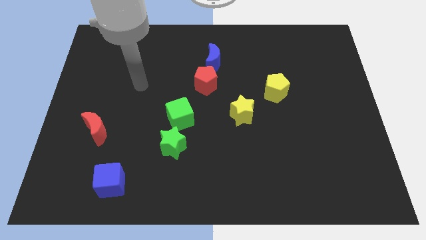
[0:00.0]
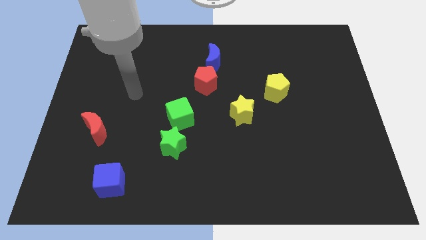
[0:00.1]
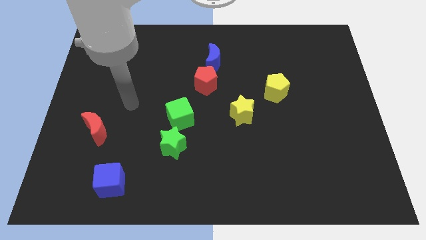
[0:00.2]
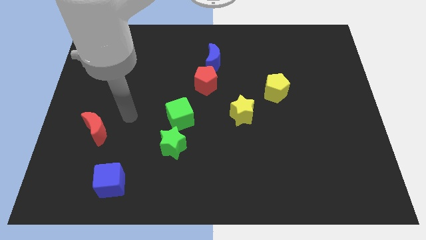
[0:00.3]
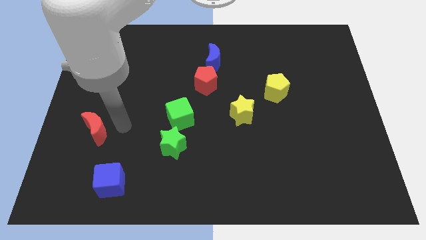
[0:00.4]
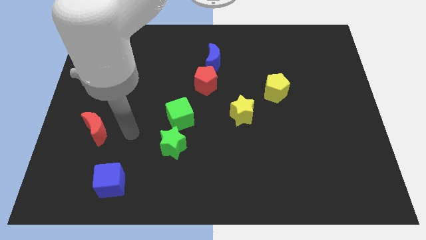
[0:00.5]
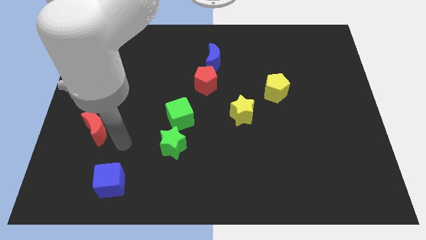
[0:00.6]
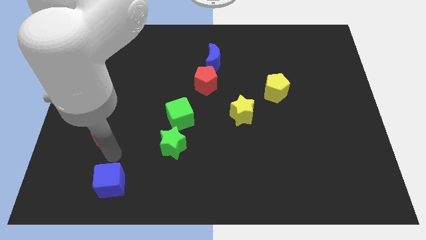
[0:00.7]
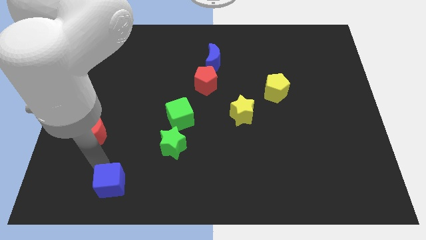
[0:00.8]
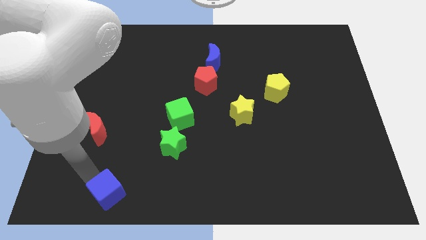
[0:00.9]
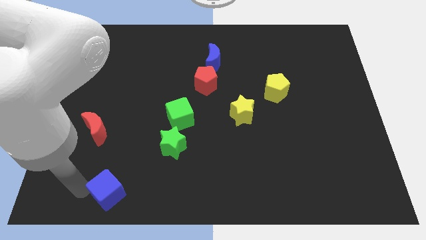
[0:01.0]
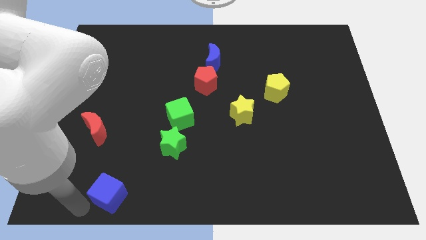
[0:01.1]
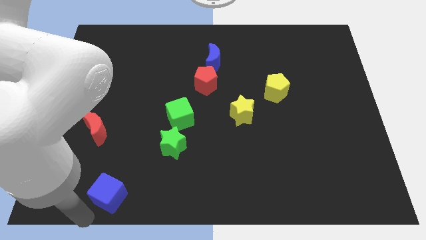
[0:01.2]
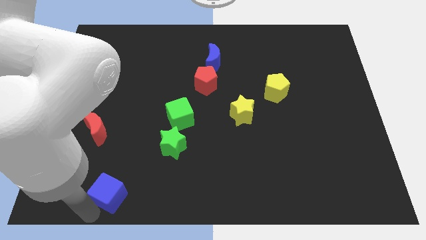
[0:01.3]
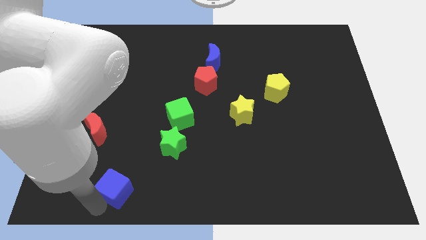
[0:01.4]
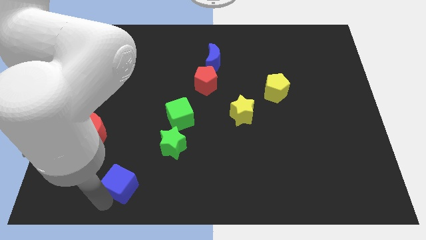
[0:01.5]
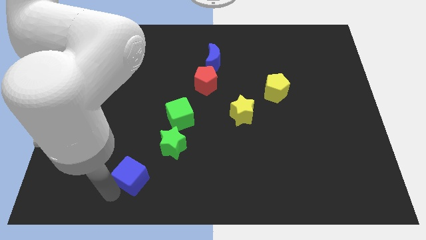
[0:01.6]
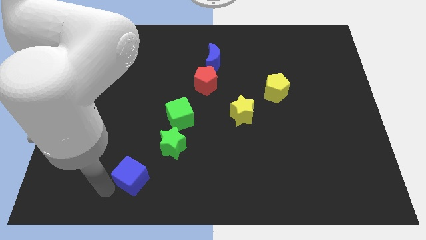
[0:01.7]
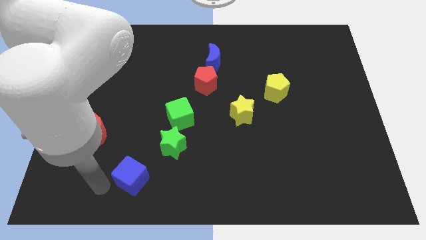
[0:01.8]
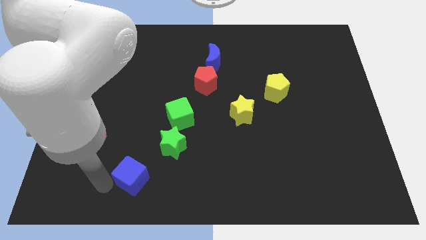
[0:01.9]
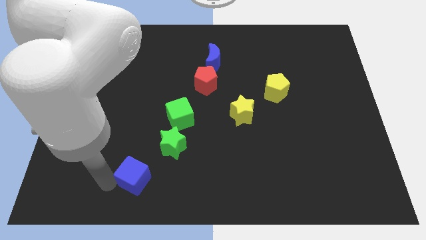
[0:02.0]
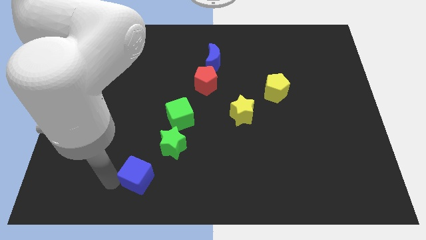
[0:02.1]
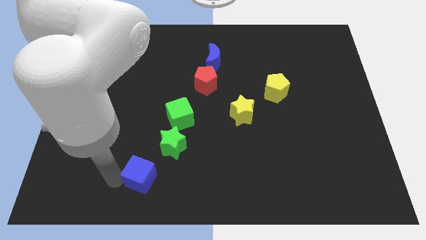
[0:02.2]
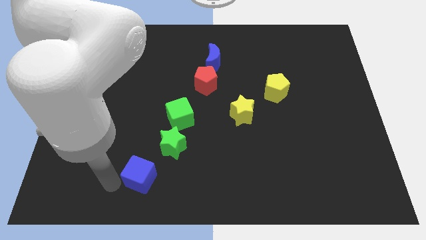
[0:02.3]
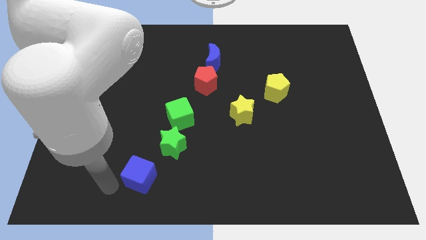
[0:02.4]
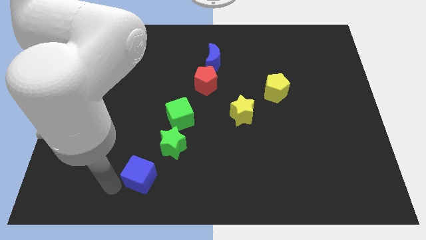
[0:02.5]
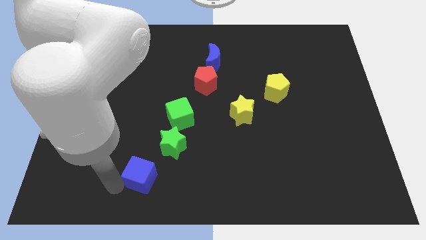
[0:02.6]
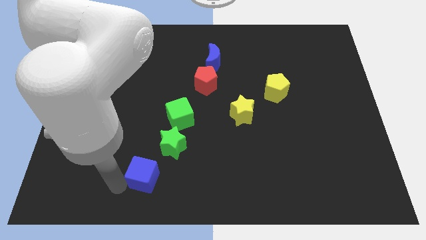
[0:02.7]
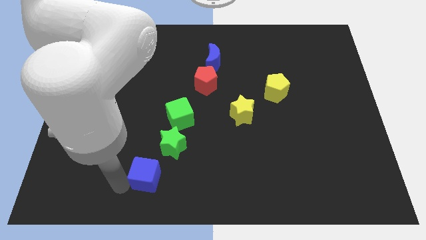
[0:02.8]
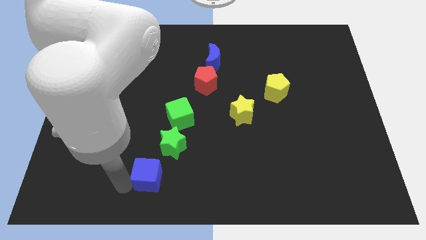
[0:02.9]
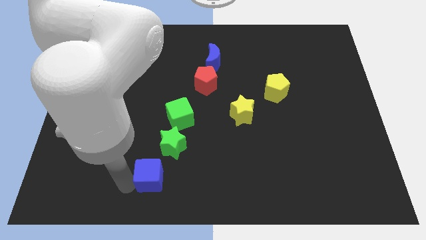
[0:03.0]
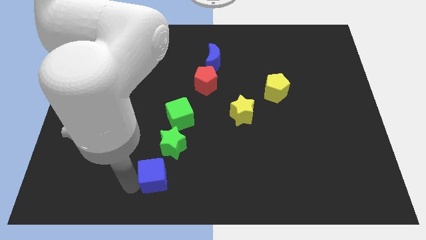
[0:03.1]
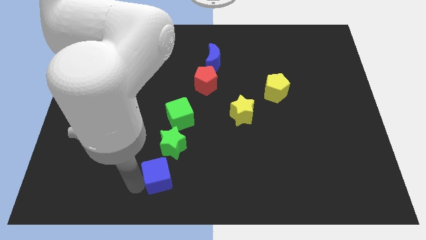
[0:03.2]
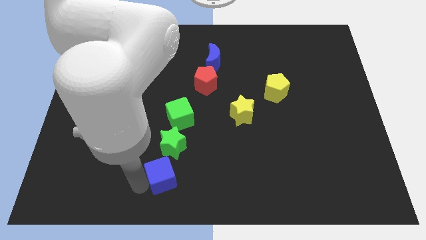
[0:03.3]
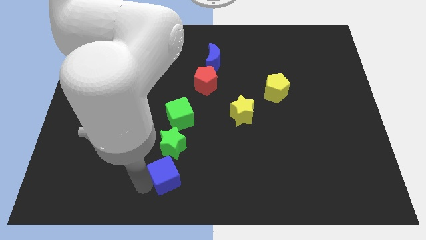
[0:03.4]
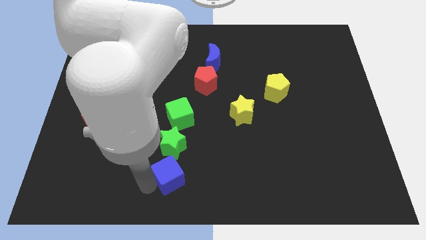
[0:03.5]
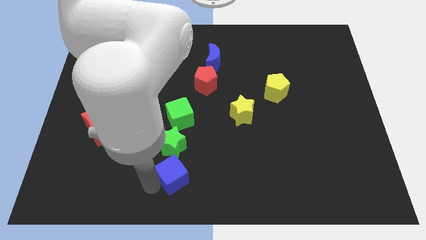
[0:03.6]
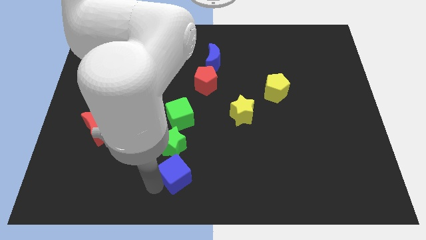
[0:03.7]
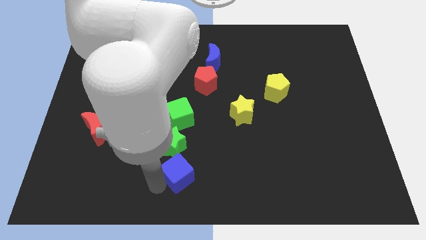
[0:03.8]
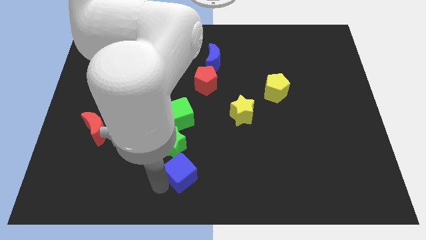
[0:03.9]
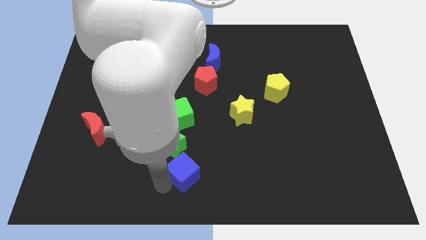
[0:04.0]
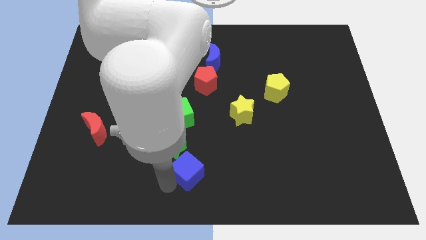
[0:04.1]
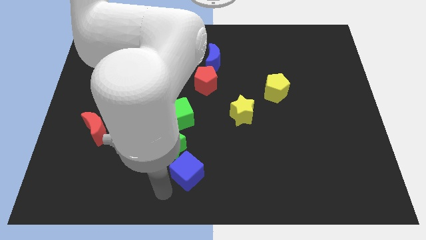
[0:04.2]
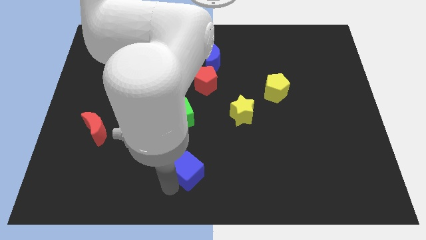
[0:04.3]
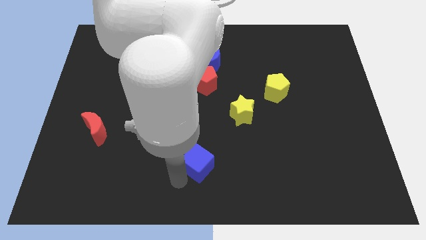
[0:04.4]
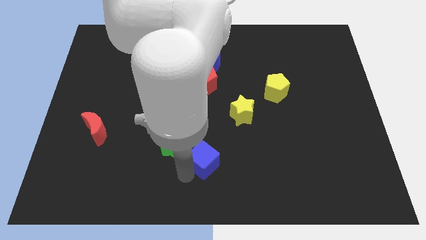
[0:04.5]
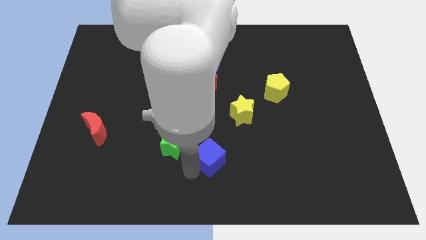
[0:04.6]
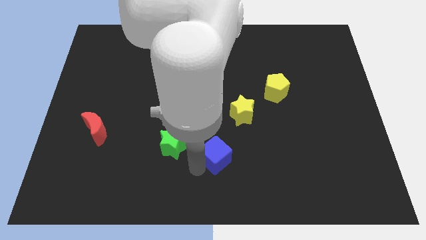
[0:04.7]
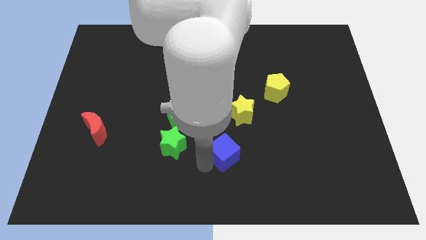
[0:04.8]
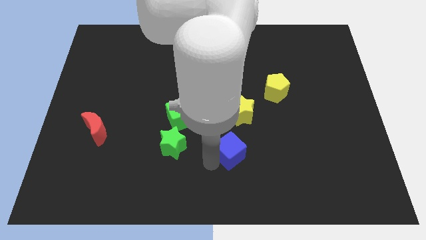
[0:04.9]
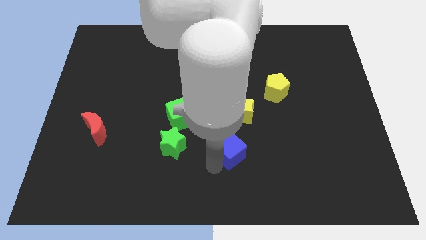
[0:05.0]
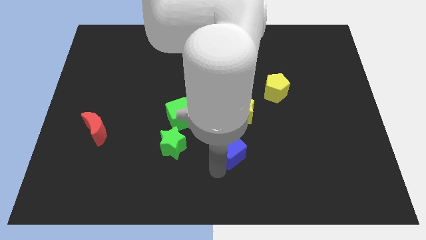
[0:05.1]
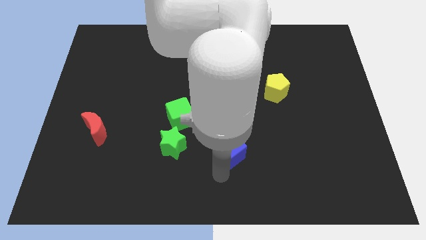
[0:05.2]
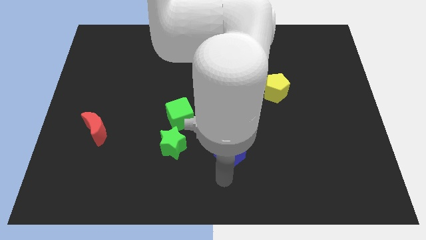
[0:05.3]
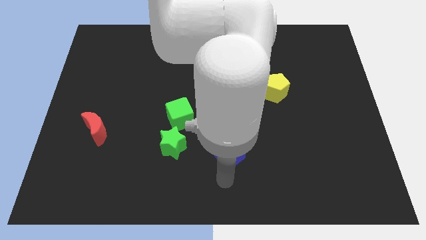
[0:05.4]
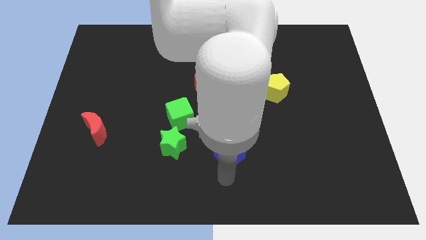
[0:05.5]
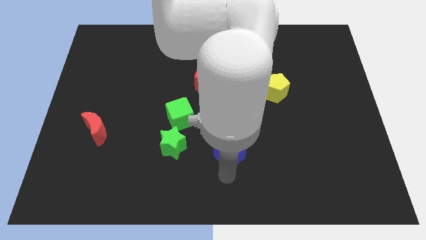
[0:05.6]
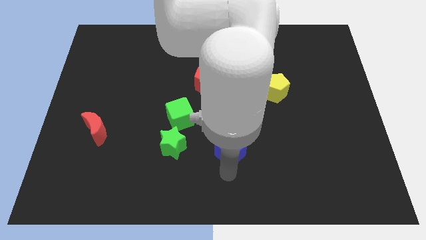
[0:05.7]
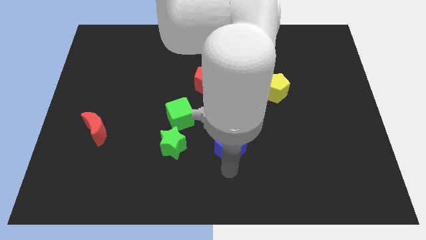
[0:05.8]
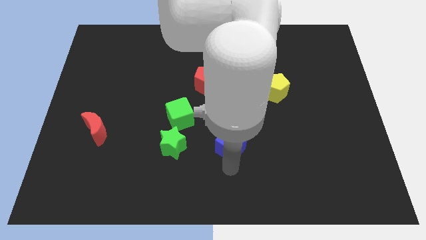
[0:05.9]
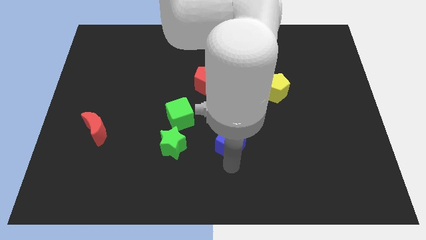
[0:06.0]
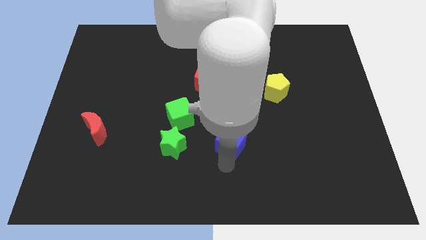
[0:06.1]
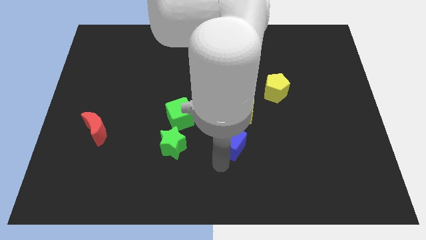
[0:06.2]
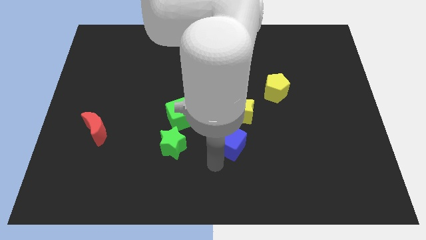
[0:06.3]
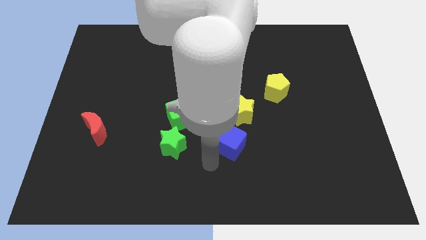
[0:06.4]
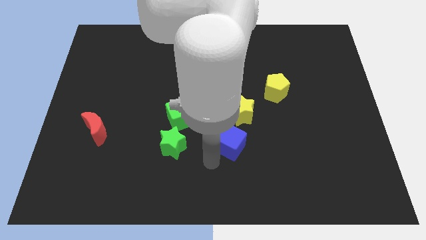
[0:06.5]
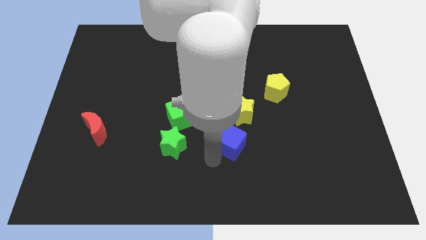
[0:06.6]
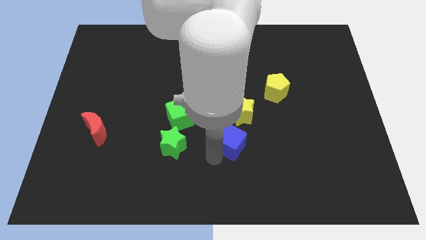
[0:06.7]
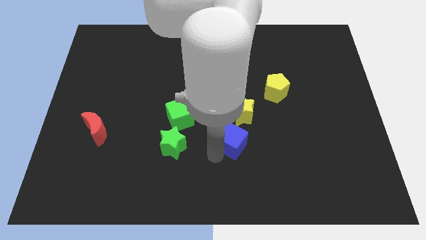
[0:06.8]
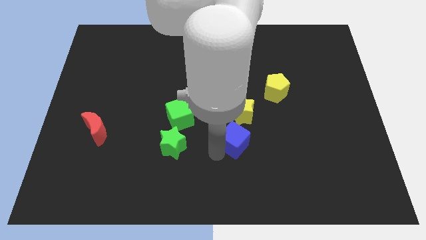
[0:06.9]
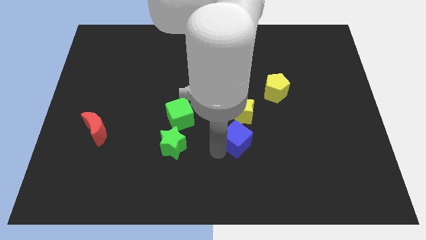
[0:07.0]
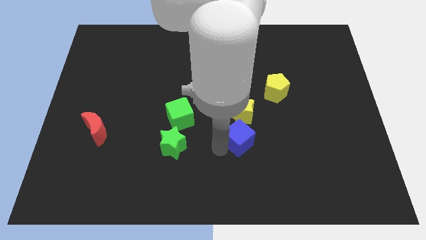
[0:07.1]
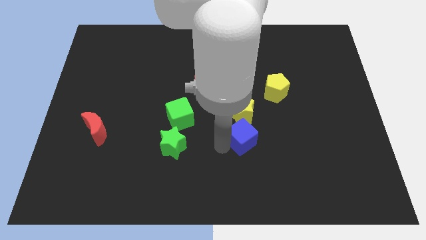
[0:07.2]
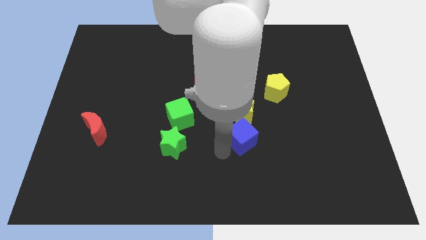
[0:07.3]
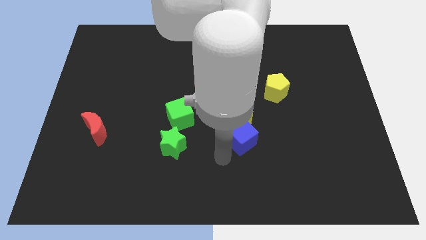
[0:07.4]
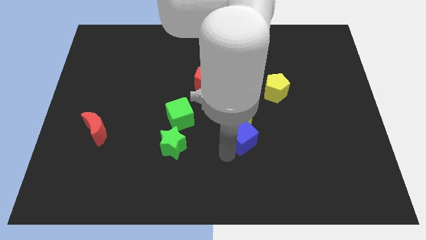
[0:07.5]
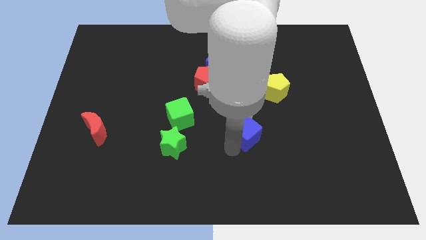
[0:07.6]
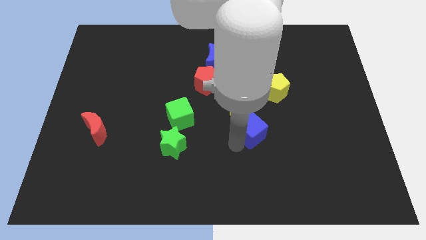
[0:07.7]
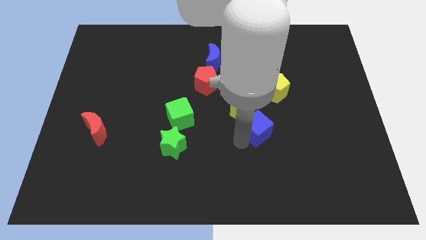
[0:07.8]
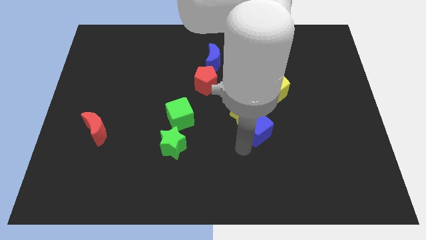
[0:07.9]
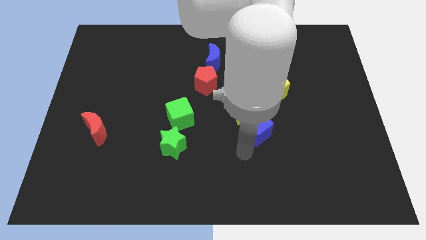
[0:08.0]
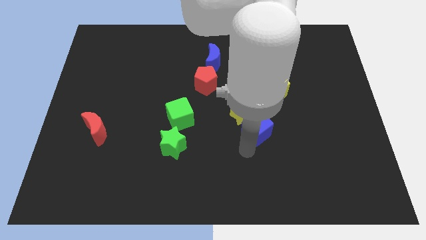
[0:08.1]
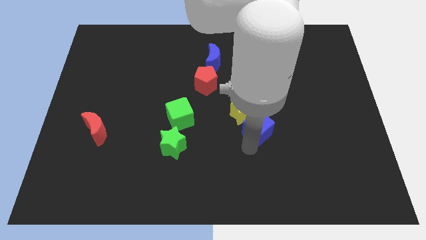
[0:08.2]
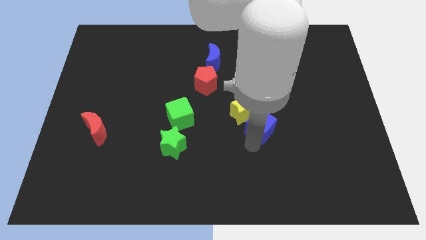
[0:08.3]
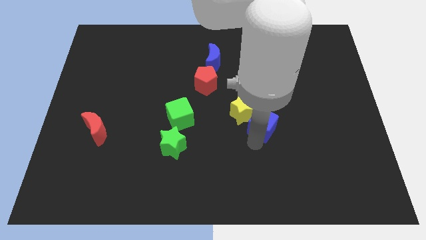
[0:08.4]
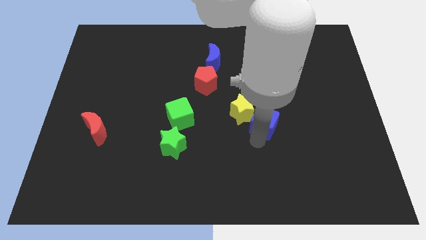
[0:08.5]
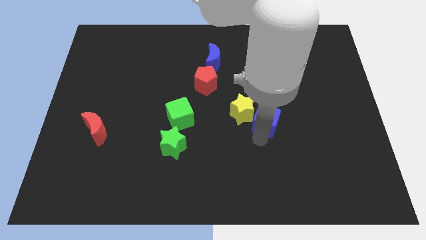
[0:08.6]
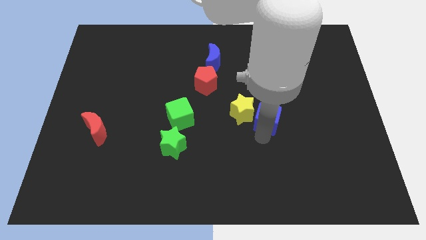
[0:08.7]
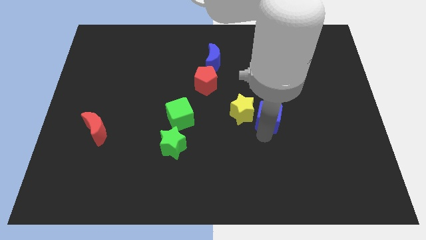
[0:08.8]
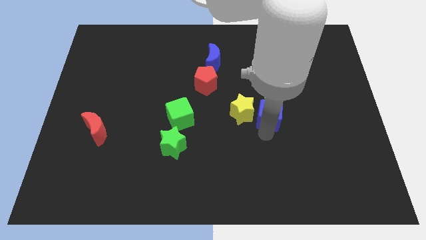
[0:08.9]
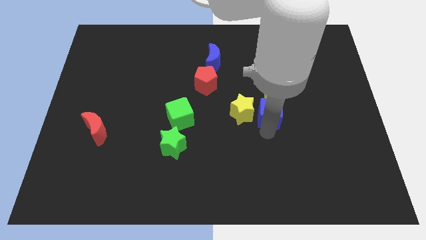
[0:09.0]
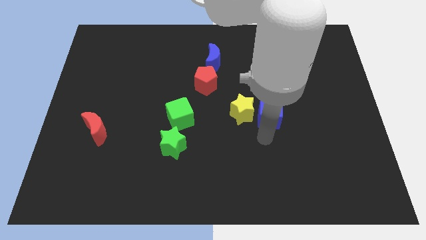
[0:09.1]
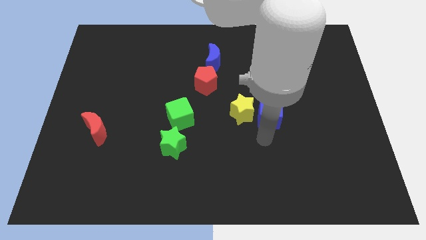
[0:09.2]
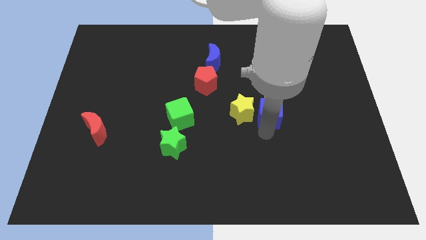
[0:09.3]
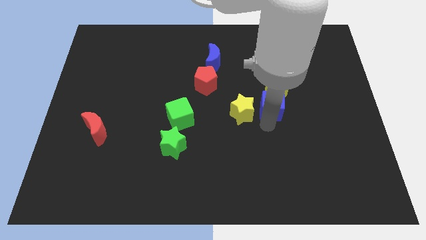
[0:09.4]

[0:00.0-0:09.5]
put the blue cube towards the yellow pentagon
